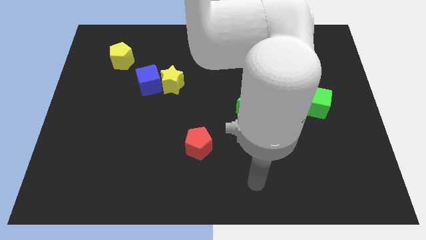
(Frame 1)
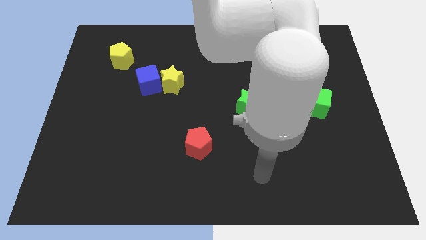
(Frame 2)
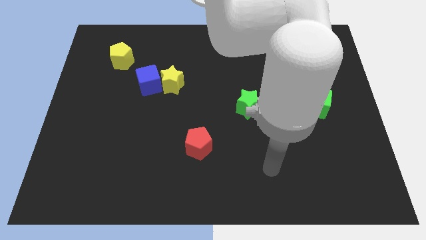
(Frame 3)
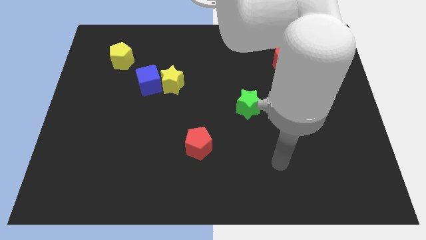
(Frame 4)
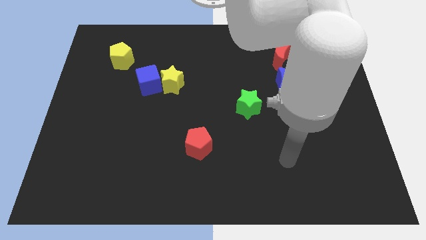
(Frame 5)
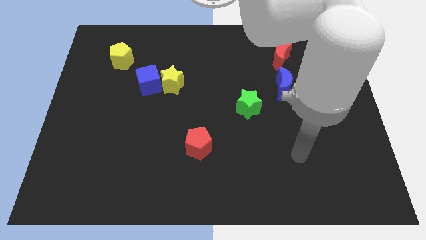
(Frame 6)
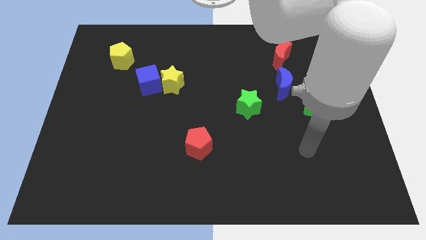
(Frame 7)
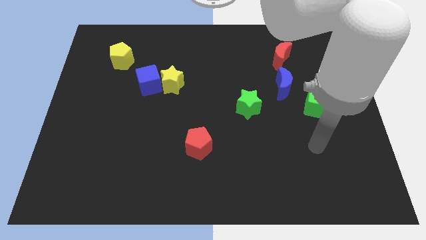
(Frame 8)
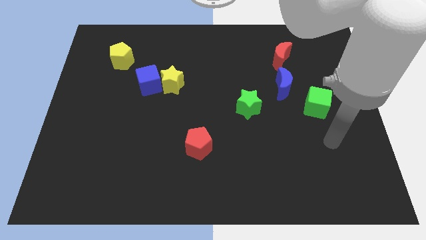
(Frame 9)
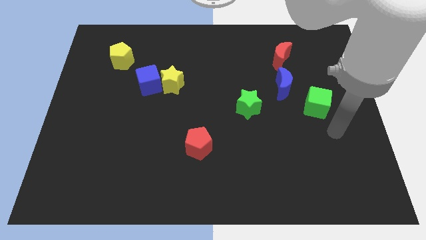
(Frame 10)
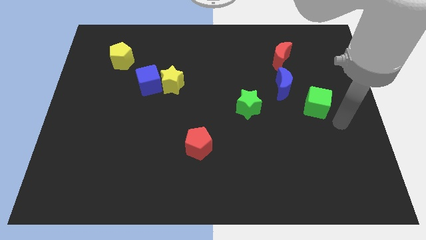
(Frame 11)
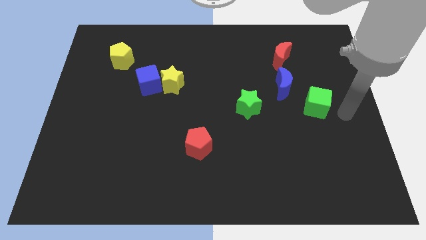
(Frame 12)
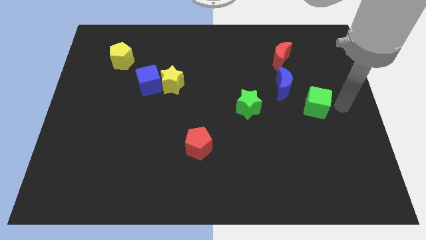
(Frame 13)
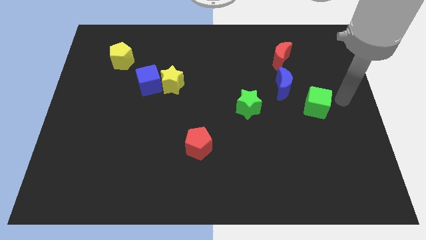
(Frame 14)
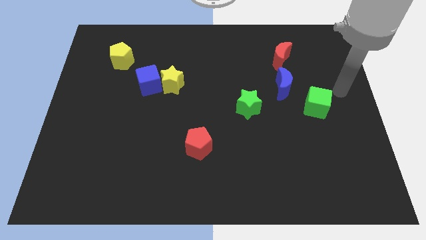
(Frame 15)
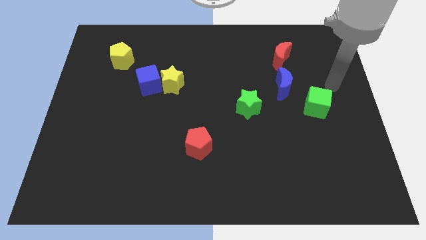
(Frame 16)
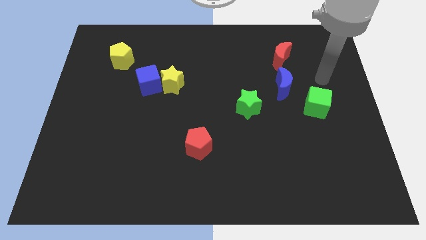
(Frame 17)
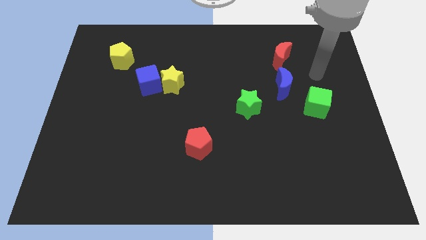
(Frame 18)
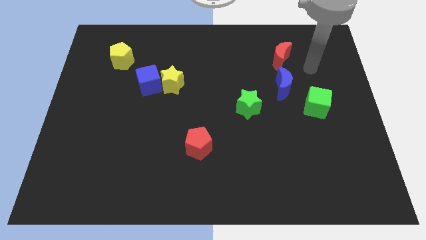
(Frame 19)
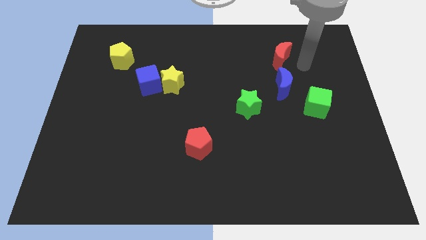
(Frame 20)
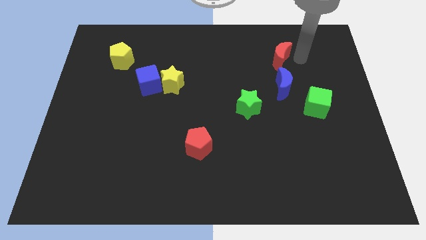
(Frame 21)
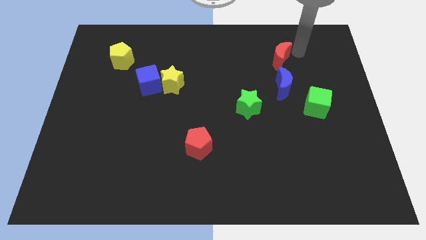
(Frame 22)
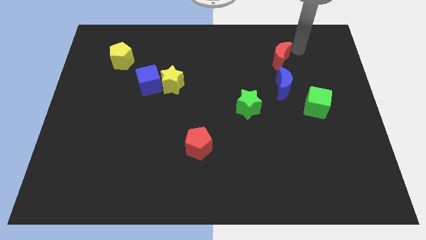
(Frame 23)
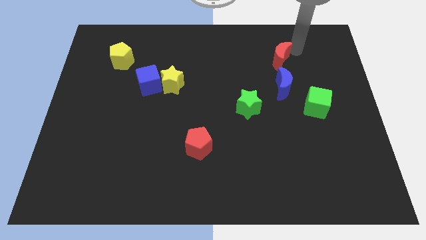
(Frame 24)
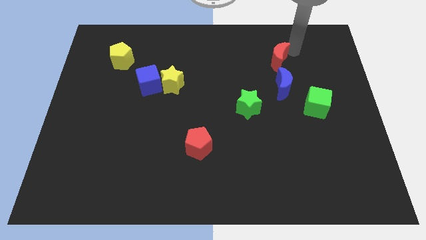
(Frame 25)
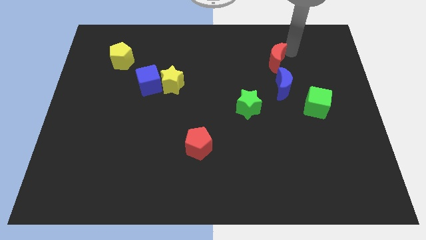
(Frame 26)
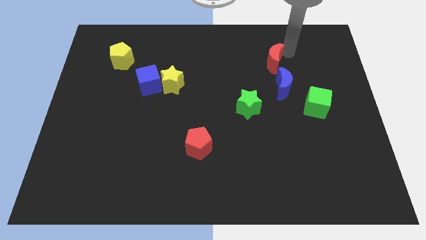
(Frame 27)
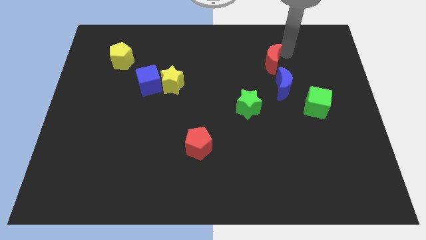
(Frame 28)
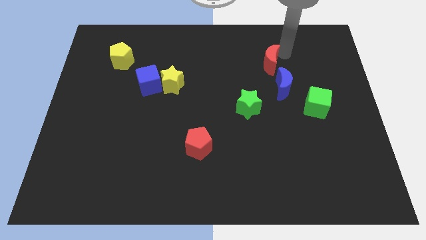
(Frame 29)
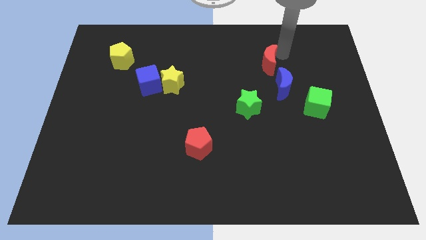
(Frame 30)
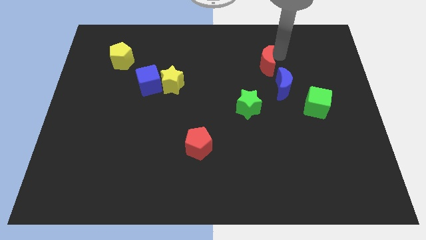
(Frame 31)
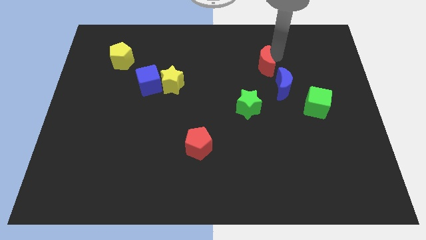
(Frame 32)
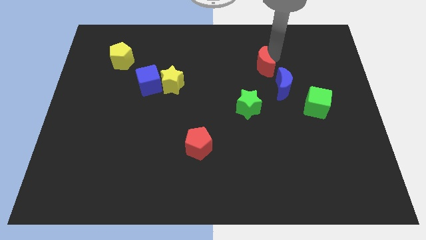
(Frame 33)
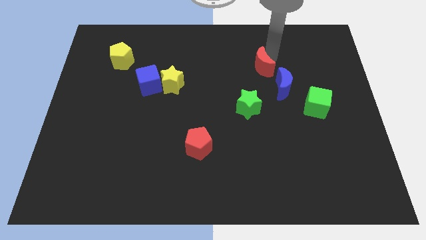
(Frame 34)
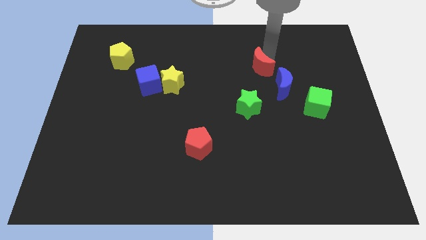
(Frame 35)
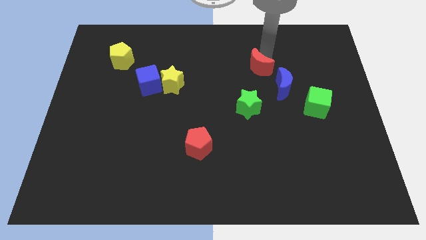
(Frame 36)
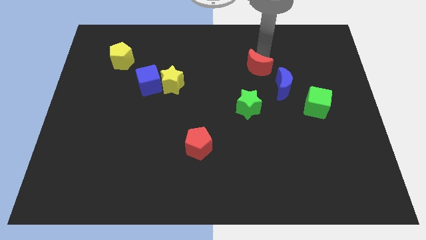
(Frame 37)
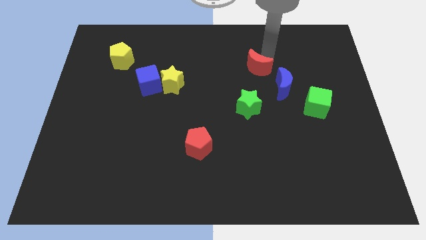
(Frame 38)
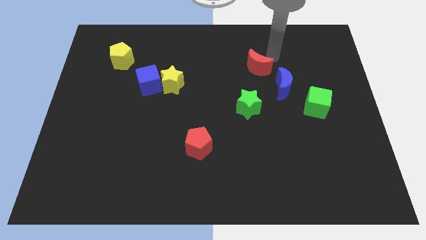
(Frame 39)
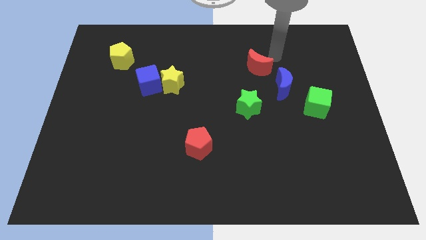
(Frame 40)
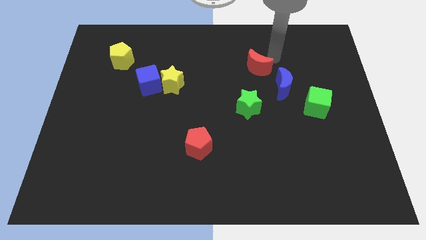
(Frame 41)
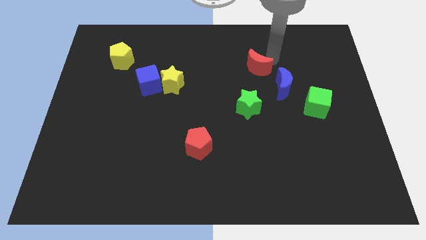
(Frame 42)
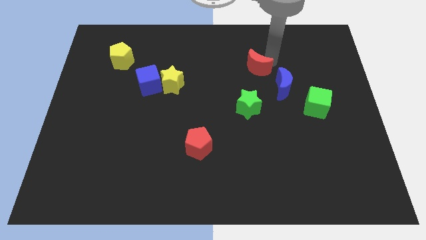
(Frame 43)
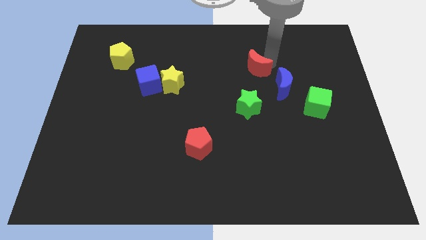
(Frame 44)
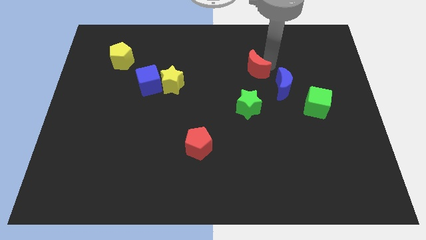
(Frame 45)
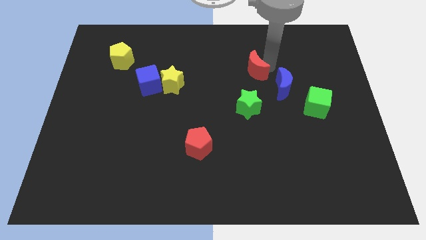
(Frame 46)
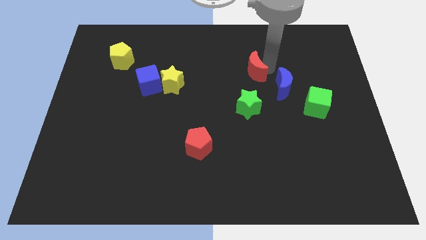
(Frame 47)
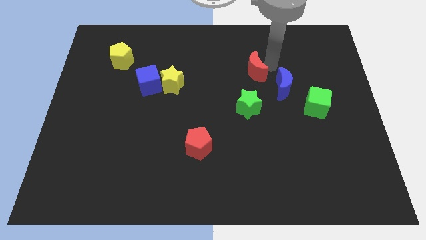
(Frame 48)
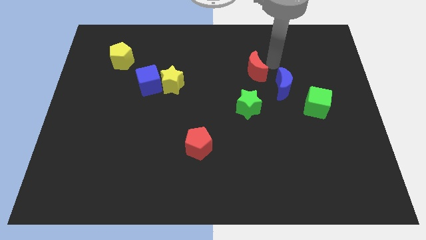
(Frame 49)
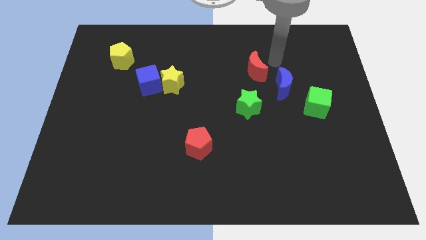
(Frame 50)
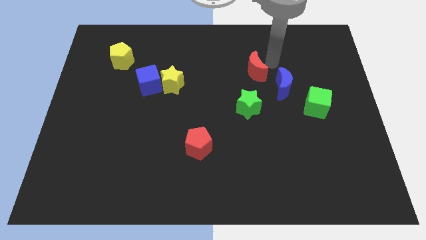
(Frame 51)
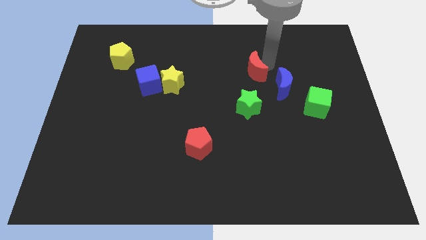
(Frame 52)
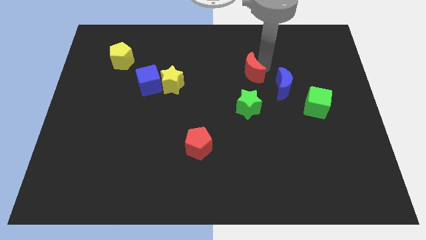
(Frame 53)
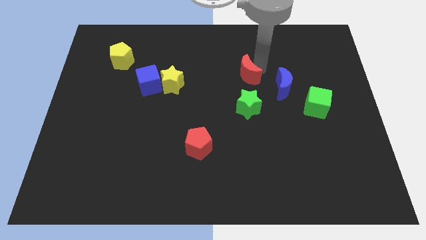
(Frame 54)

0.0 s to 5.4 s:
push the red moon to the middle of the board

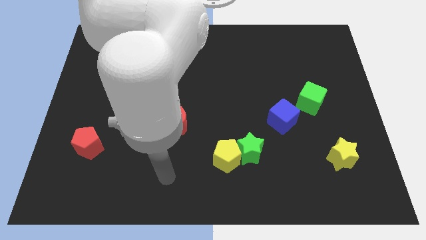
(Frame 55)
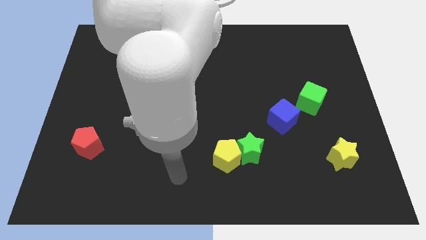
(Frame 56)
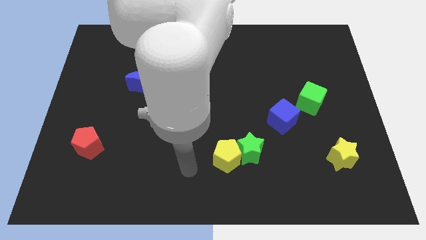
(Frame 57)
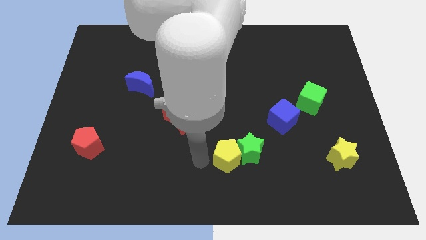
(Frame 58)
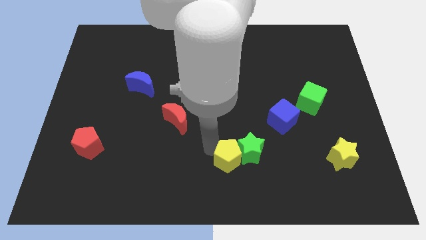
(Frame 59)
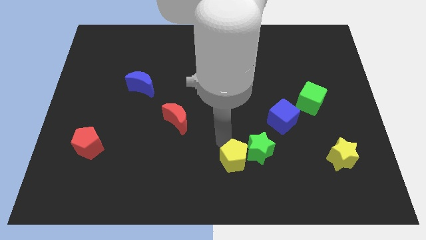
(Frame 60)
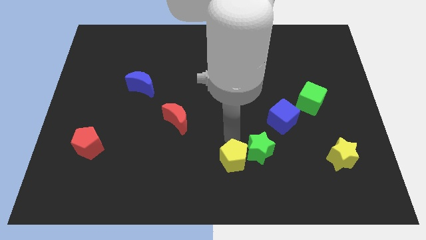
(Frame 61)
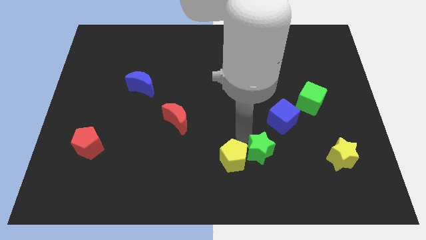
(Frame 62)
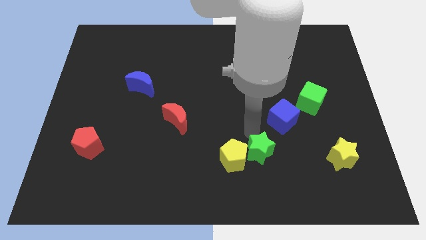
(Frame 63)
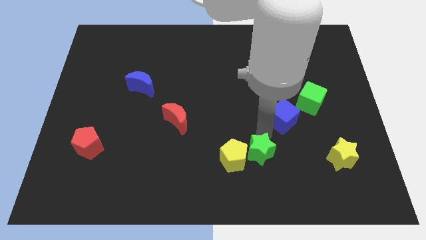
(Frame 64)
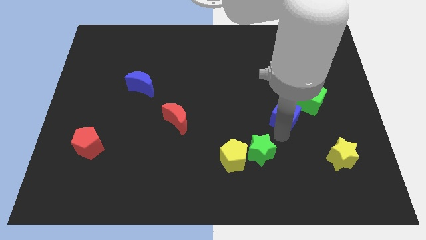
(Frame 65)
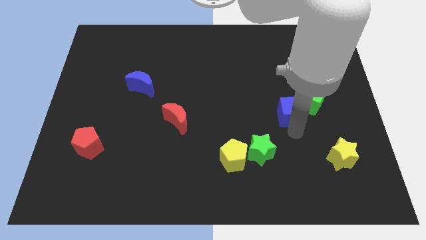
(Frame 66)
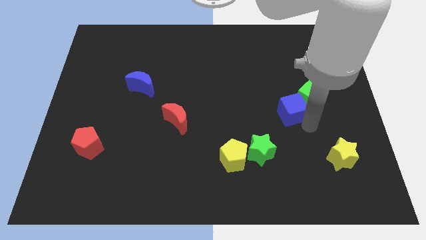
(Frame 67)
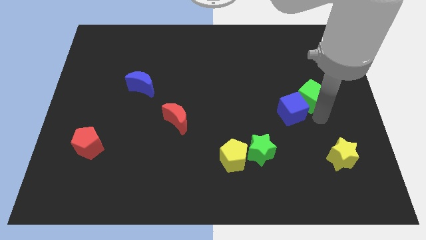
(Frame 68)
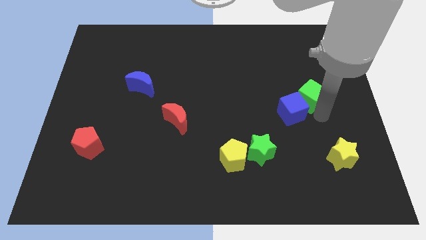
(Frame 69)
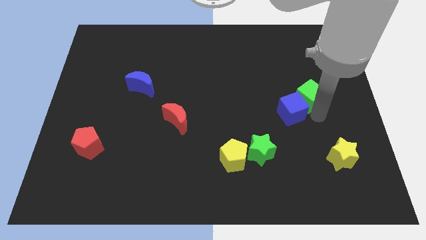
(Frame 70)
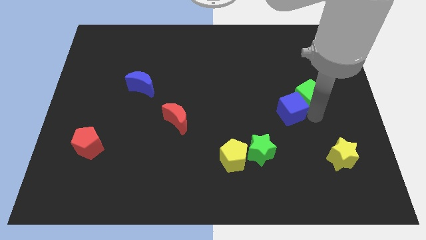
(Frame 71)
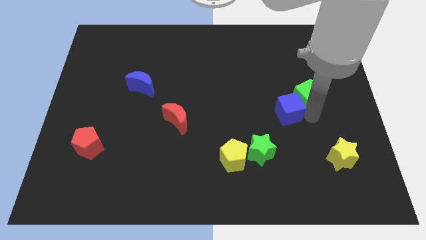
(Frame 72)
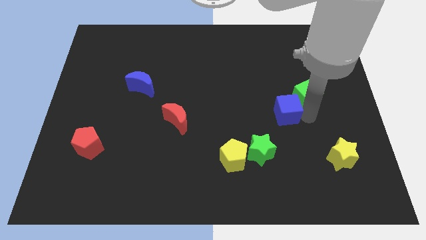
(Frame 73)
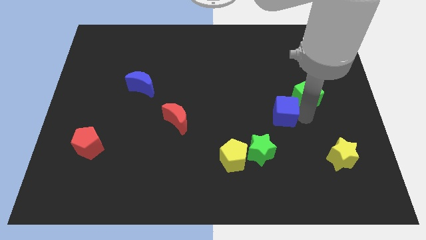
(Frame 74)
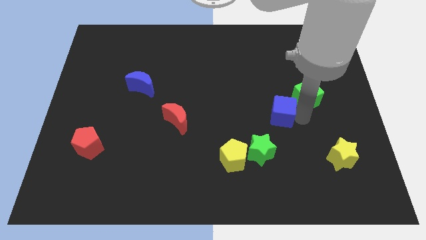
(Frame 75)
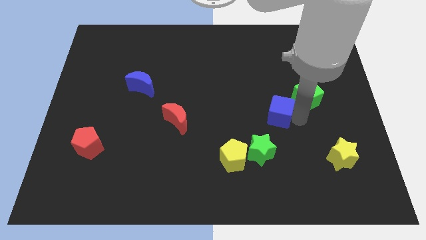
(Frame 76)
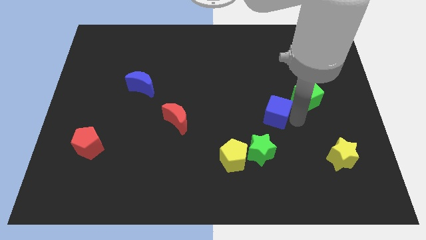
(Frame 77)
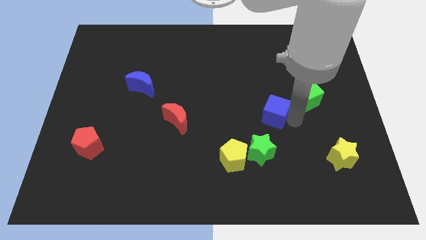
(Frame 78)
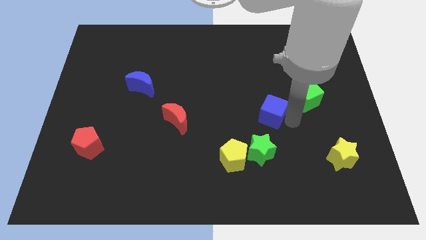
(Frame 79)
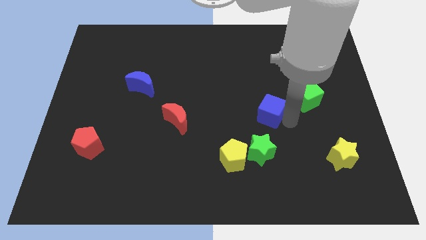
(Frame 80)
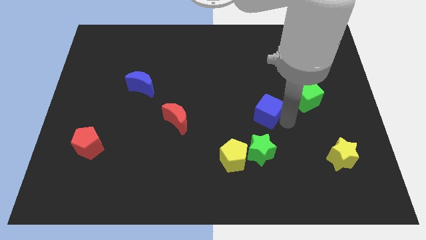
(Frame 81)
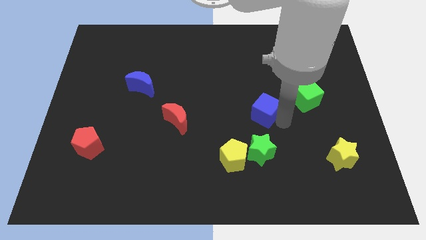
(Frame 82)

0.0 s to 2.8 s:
push the blue cube to the middle of the board
